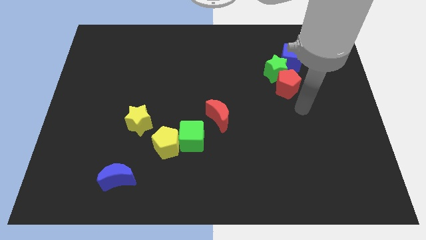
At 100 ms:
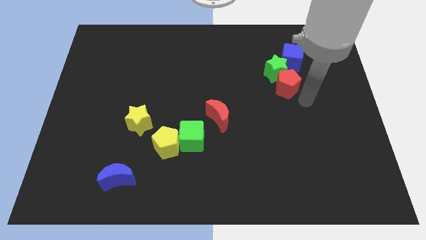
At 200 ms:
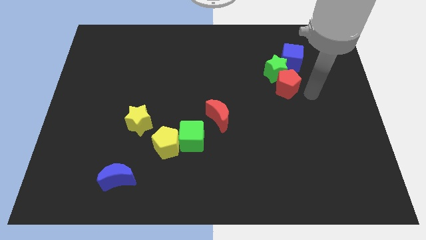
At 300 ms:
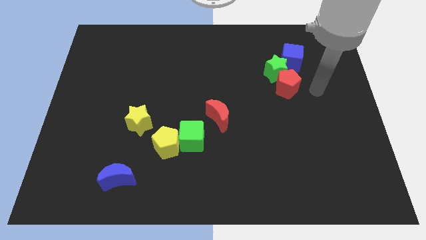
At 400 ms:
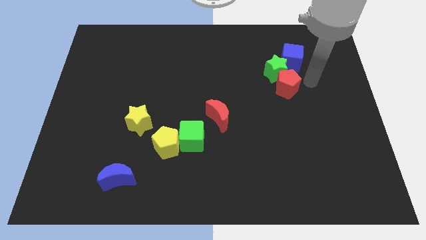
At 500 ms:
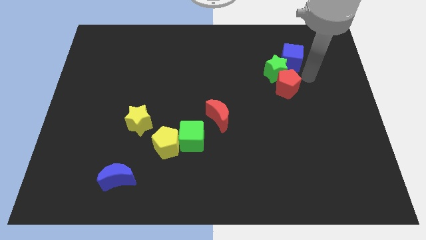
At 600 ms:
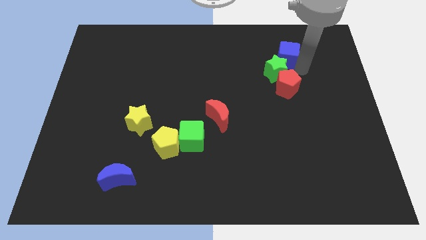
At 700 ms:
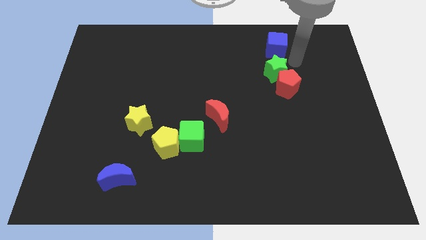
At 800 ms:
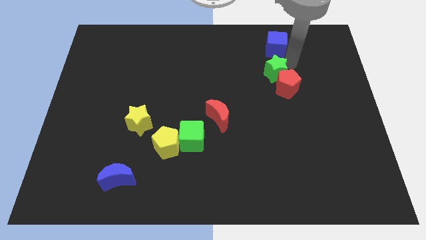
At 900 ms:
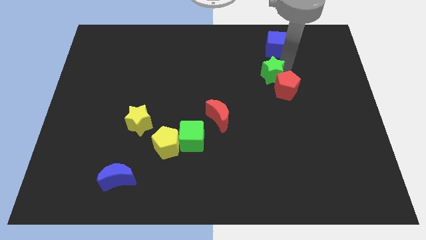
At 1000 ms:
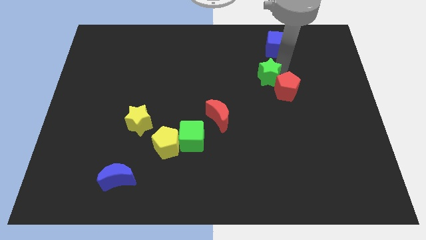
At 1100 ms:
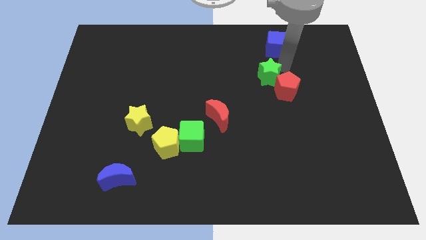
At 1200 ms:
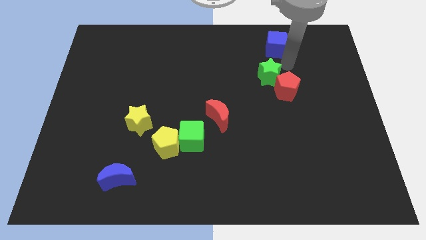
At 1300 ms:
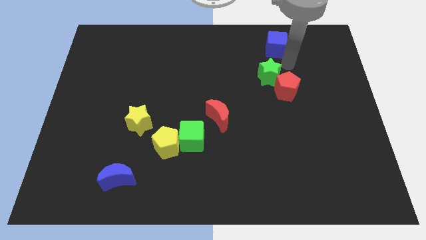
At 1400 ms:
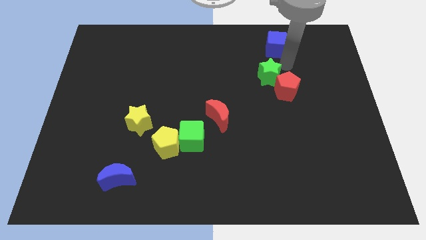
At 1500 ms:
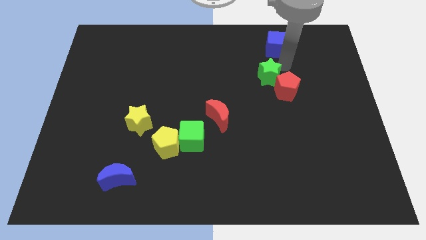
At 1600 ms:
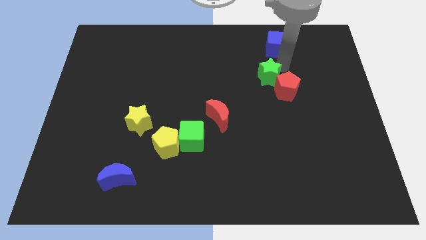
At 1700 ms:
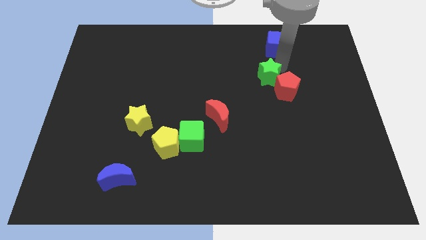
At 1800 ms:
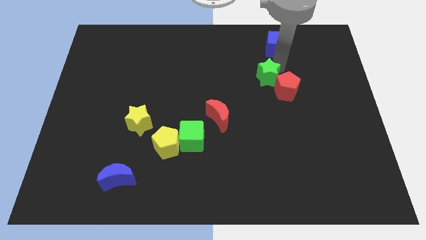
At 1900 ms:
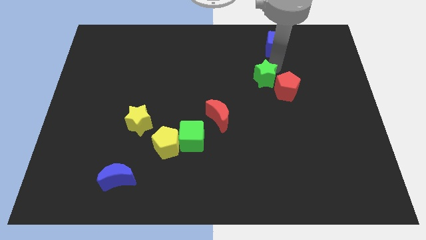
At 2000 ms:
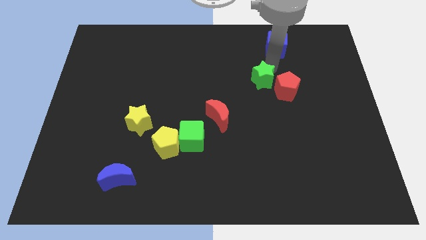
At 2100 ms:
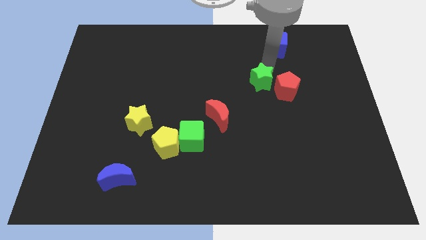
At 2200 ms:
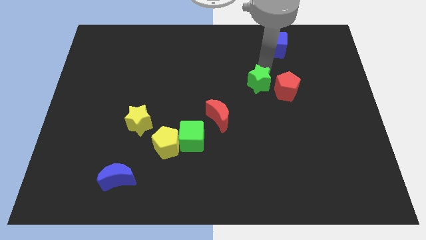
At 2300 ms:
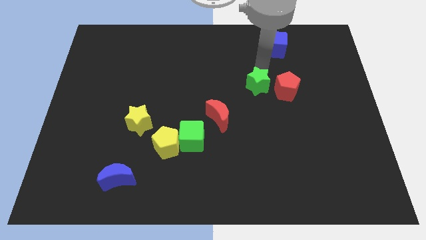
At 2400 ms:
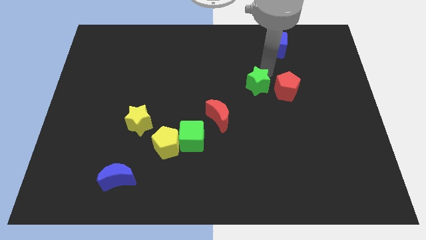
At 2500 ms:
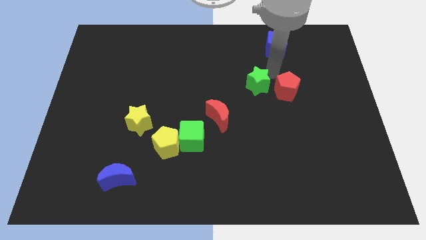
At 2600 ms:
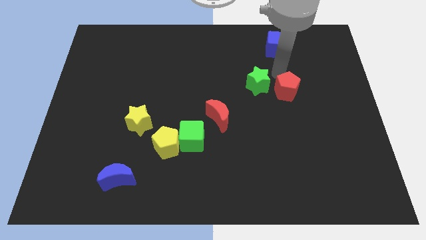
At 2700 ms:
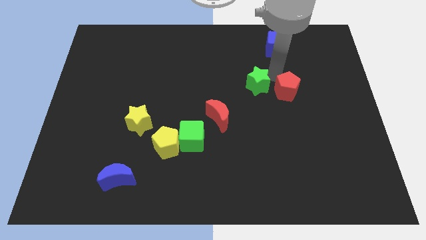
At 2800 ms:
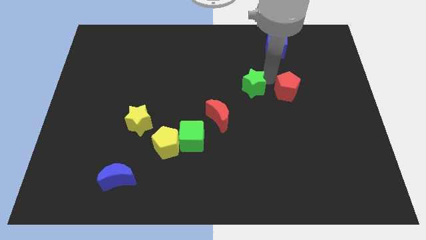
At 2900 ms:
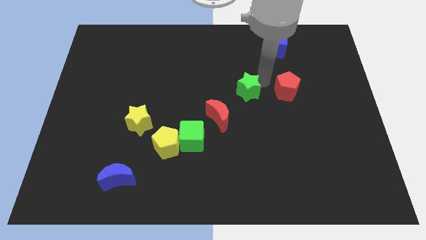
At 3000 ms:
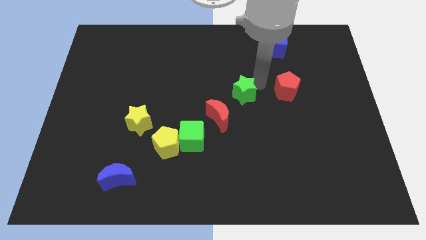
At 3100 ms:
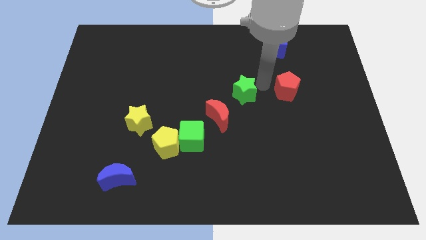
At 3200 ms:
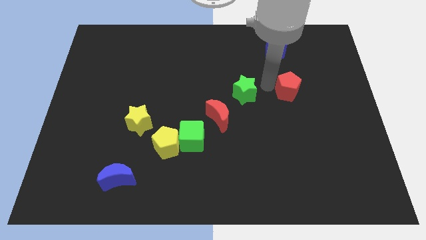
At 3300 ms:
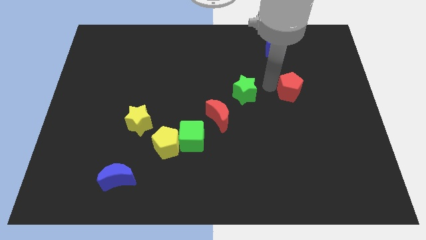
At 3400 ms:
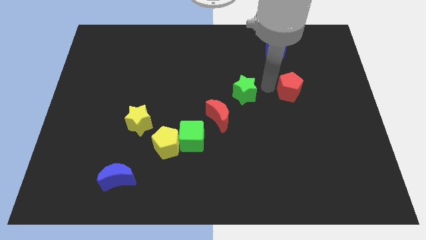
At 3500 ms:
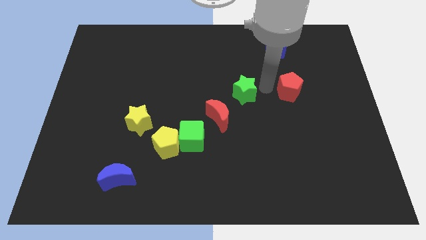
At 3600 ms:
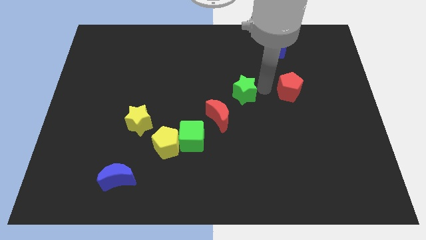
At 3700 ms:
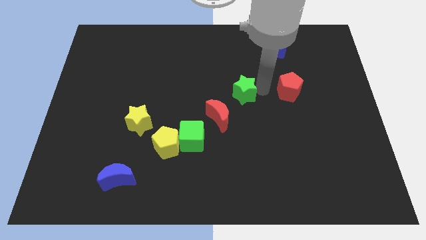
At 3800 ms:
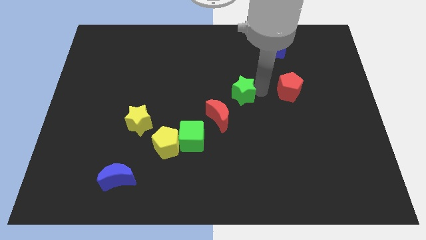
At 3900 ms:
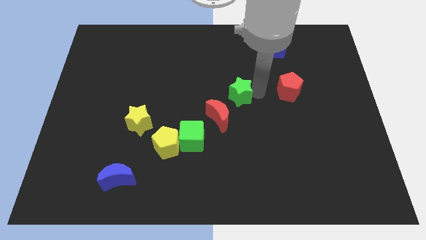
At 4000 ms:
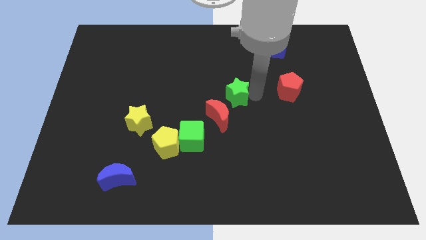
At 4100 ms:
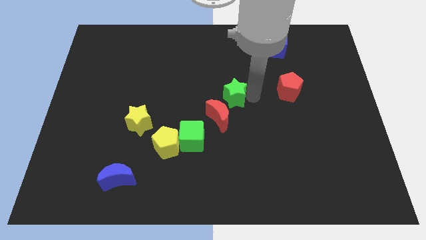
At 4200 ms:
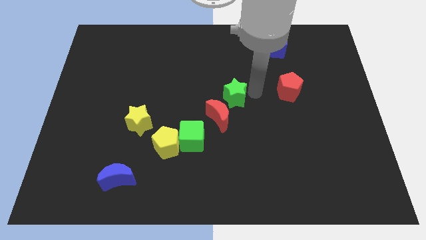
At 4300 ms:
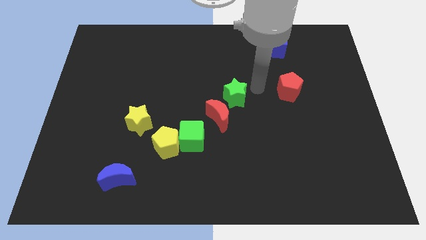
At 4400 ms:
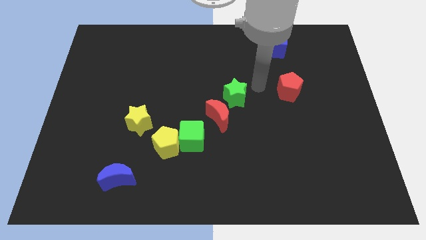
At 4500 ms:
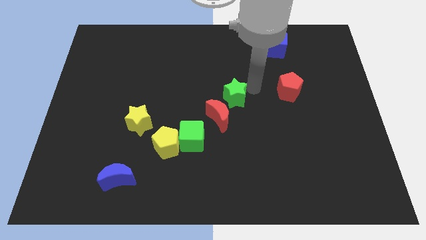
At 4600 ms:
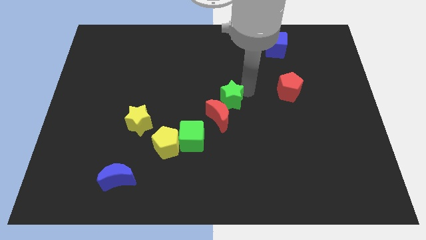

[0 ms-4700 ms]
move the green star to the red moon

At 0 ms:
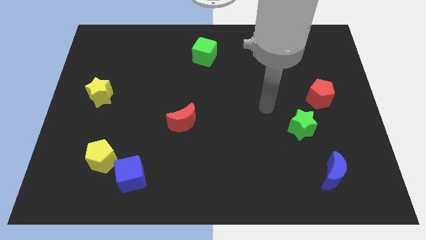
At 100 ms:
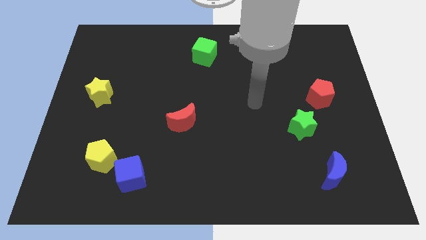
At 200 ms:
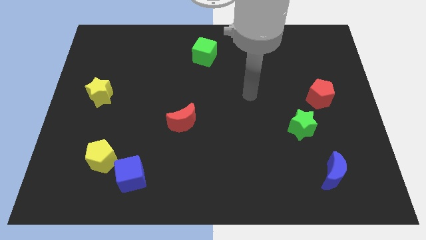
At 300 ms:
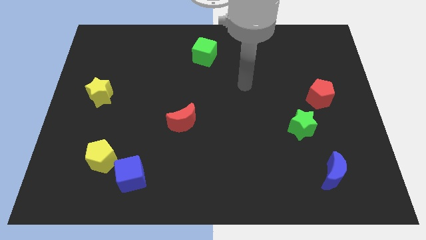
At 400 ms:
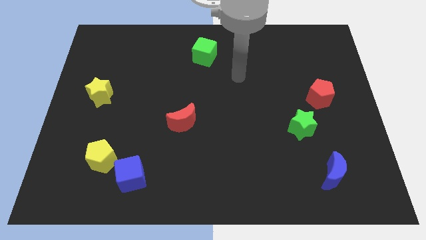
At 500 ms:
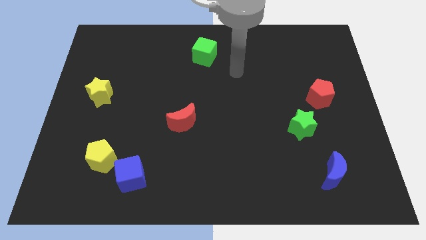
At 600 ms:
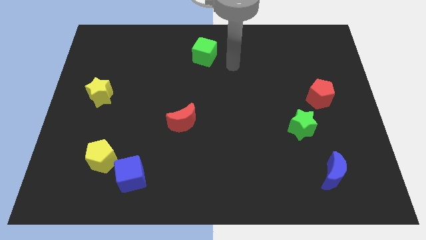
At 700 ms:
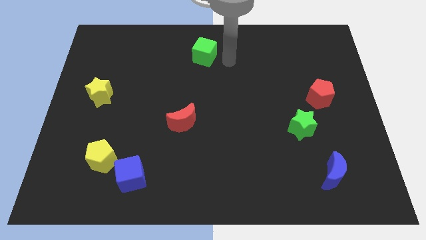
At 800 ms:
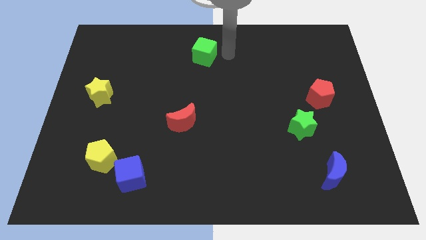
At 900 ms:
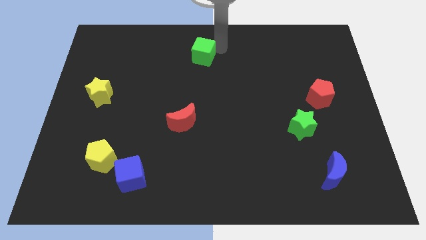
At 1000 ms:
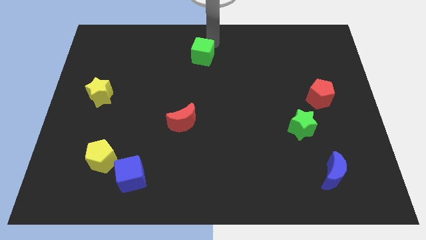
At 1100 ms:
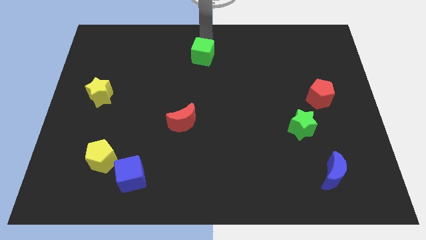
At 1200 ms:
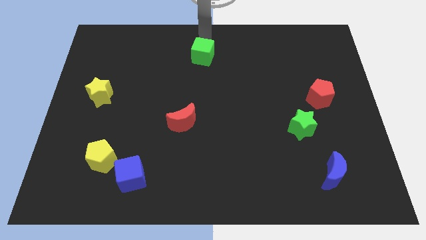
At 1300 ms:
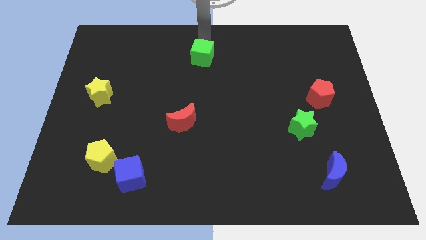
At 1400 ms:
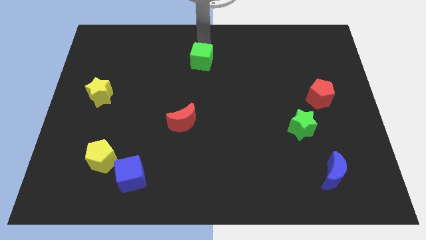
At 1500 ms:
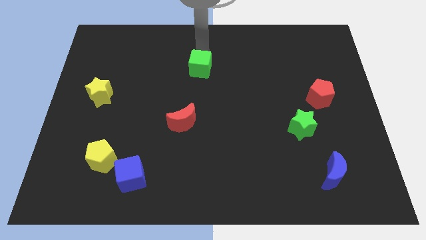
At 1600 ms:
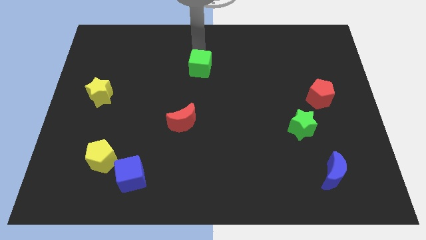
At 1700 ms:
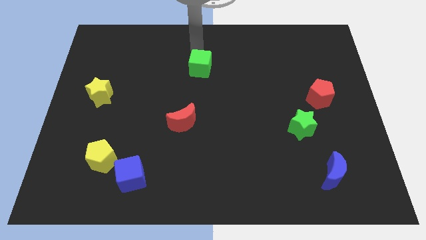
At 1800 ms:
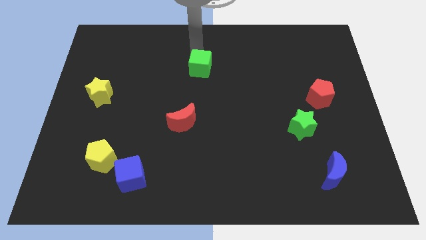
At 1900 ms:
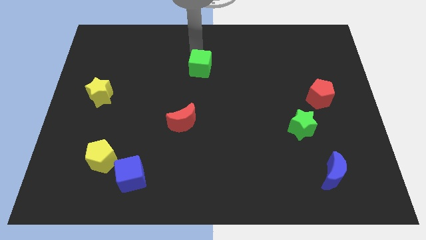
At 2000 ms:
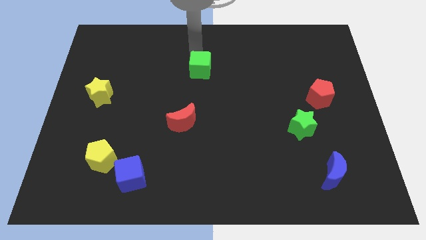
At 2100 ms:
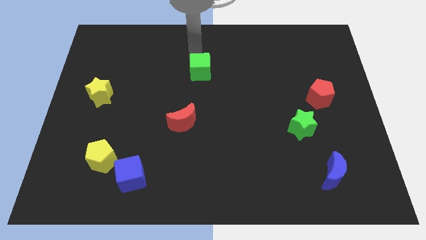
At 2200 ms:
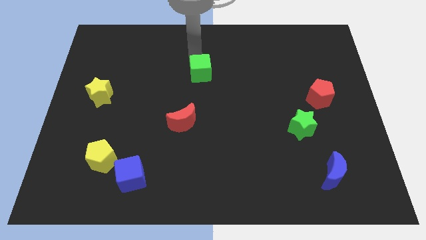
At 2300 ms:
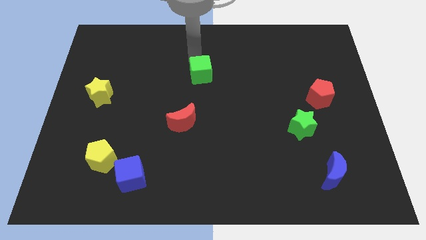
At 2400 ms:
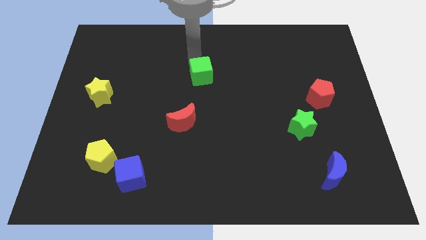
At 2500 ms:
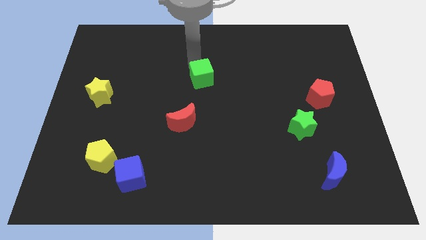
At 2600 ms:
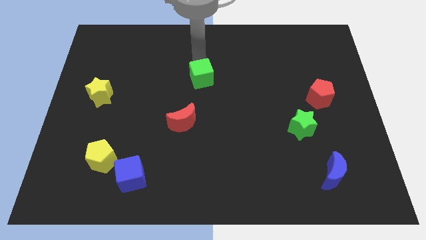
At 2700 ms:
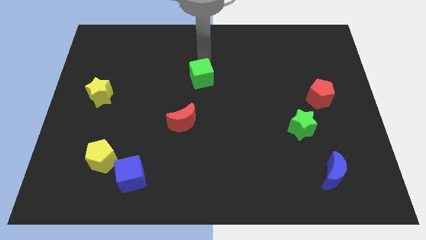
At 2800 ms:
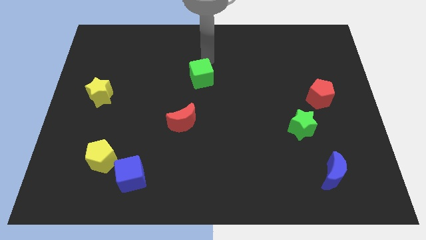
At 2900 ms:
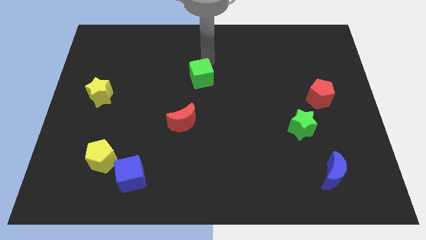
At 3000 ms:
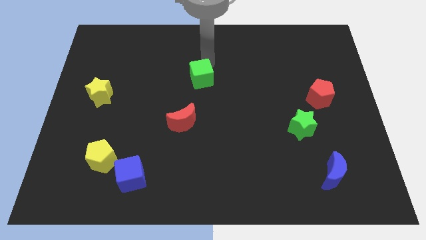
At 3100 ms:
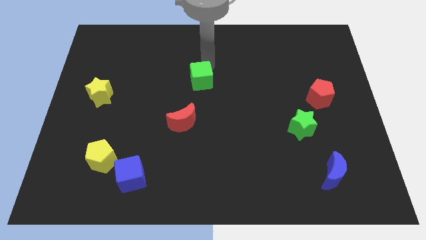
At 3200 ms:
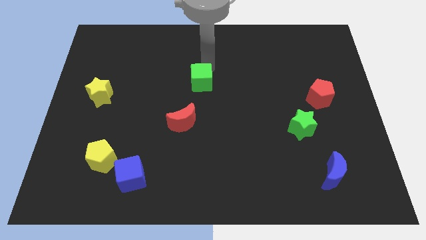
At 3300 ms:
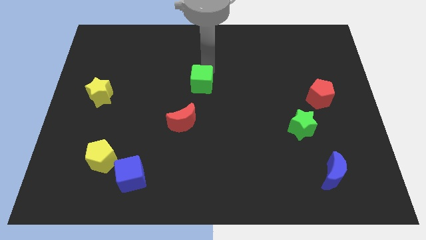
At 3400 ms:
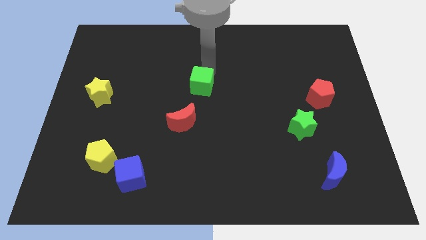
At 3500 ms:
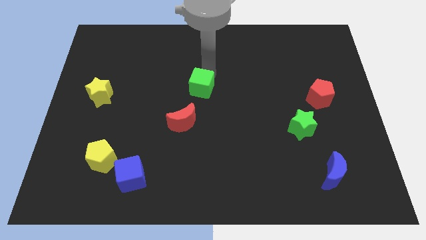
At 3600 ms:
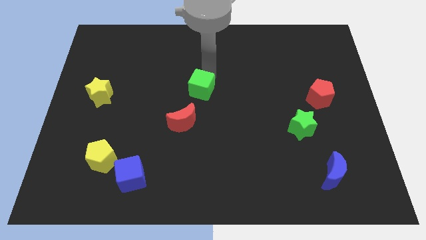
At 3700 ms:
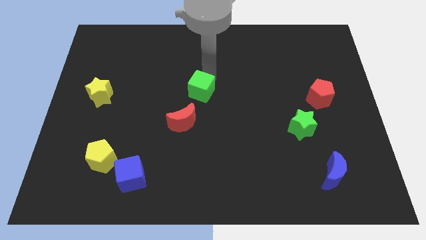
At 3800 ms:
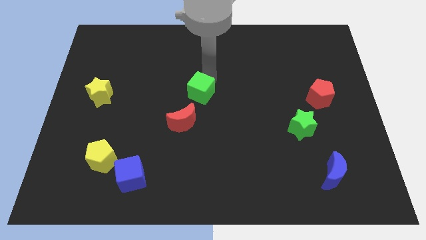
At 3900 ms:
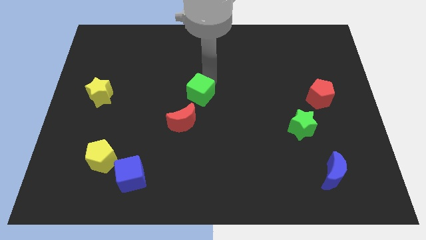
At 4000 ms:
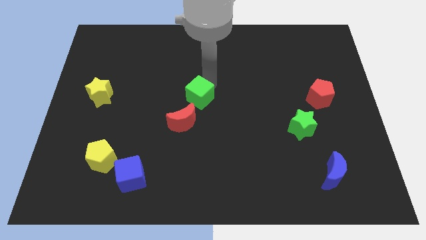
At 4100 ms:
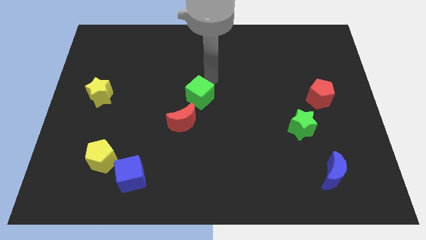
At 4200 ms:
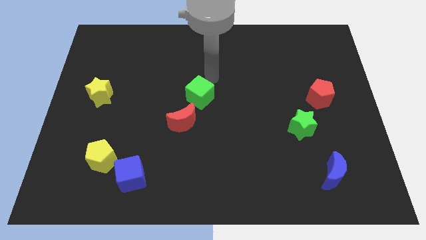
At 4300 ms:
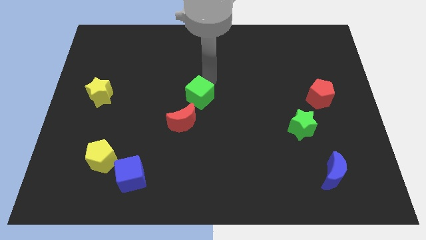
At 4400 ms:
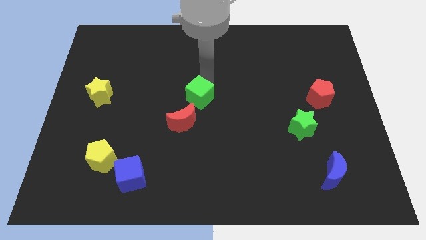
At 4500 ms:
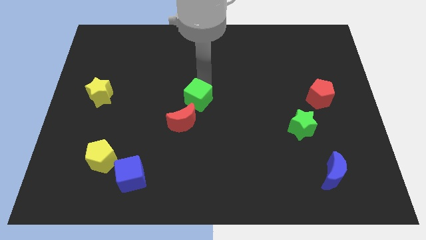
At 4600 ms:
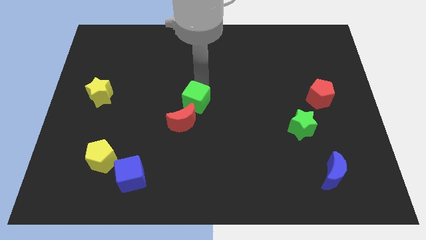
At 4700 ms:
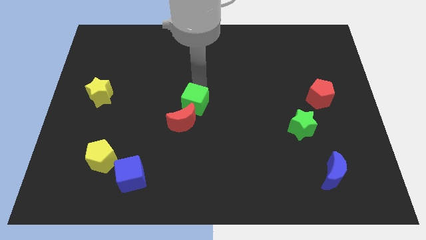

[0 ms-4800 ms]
slide the green cube to the red moon
